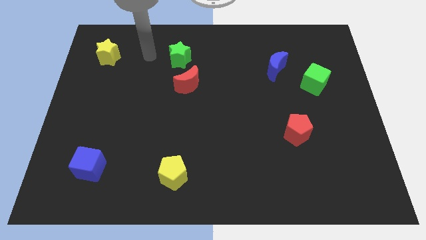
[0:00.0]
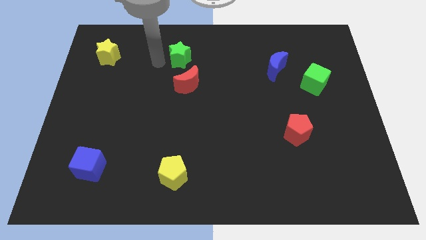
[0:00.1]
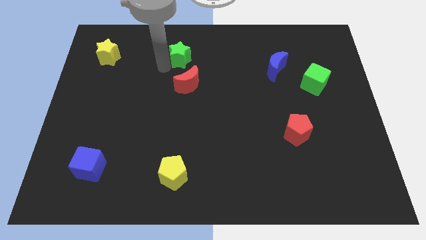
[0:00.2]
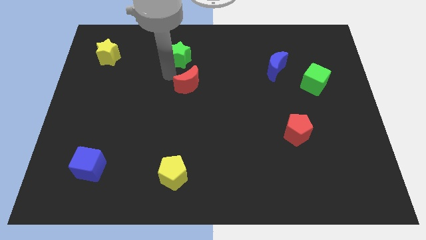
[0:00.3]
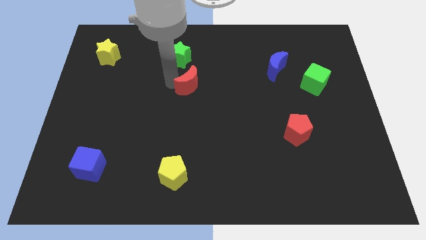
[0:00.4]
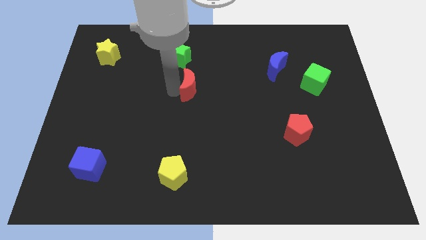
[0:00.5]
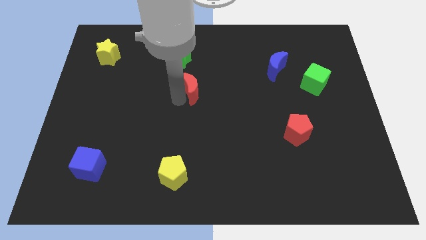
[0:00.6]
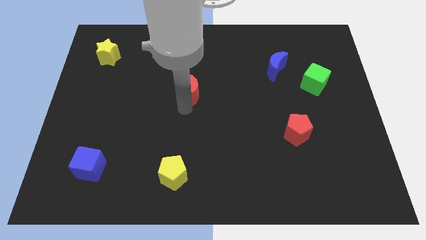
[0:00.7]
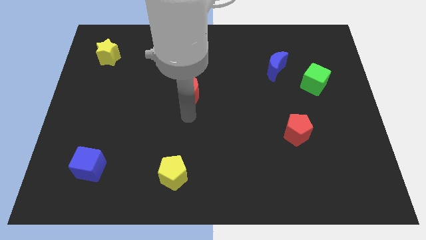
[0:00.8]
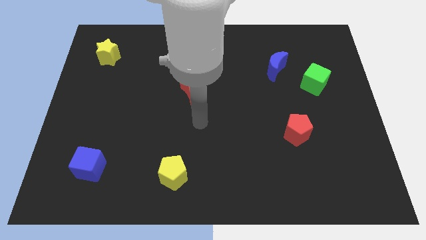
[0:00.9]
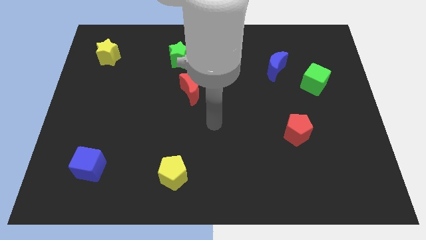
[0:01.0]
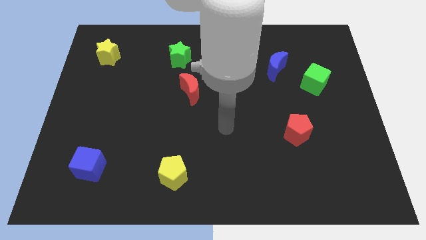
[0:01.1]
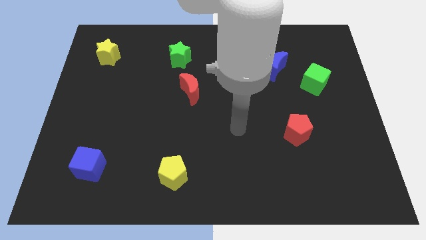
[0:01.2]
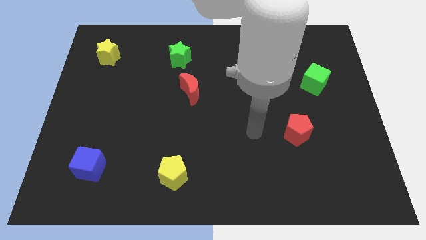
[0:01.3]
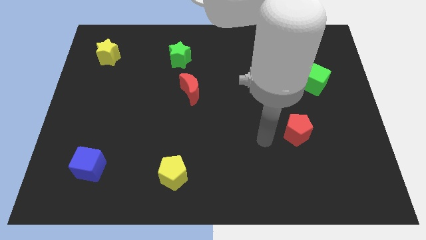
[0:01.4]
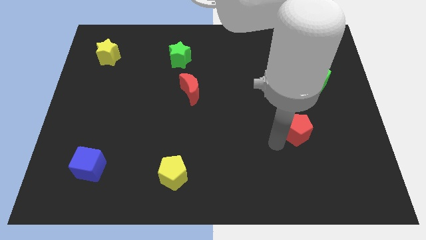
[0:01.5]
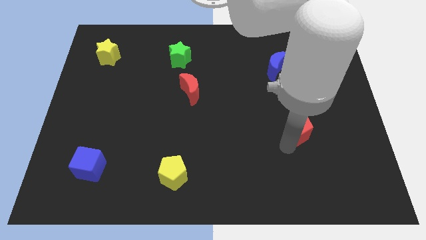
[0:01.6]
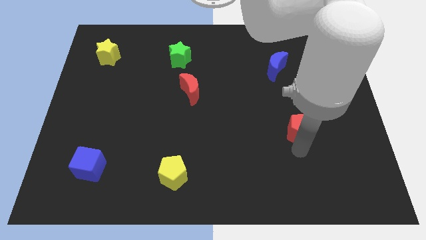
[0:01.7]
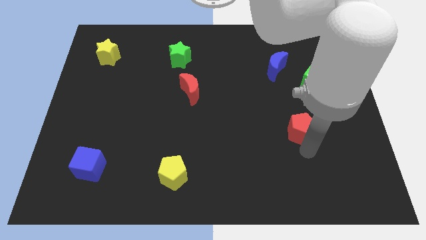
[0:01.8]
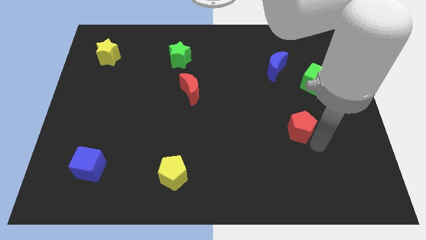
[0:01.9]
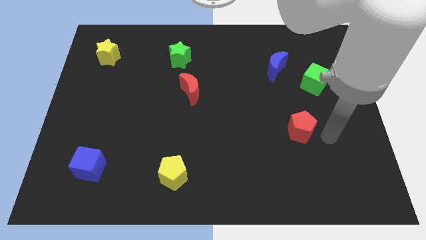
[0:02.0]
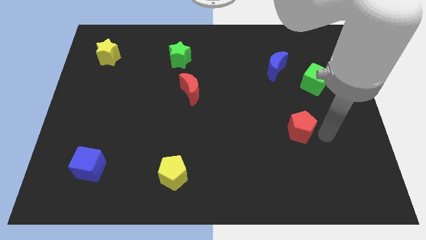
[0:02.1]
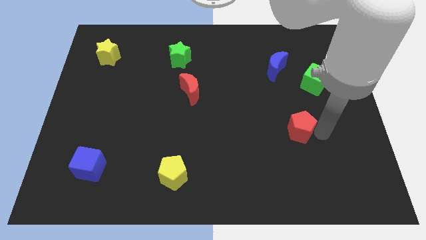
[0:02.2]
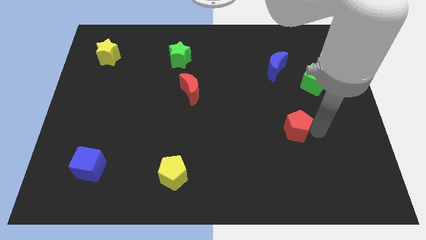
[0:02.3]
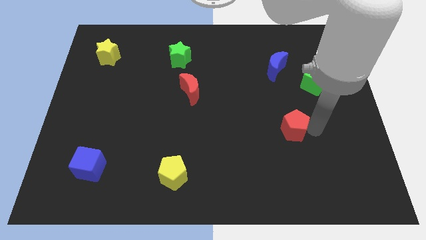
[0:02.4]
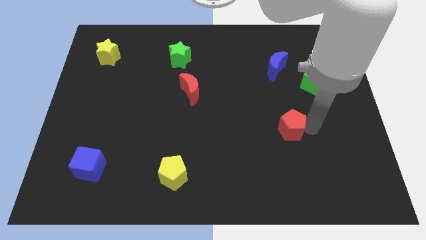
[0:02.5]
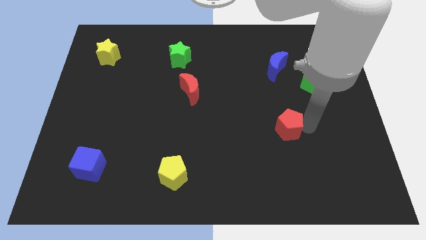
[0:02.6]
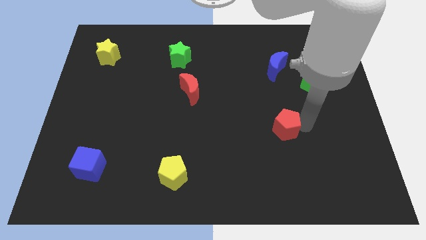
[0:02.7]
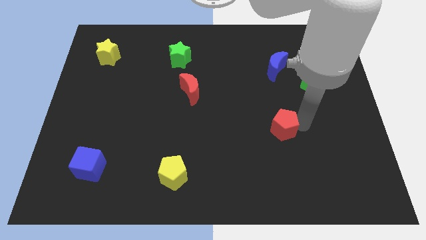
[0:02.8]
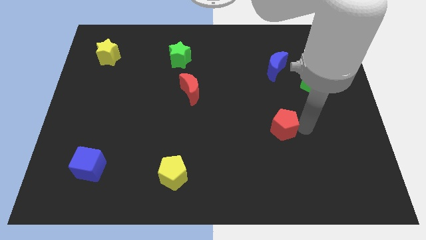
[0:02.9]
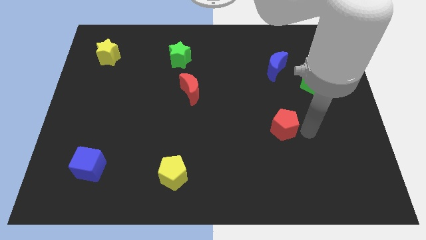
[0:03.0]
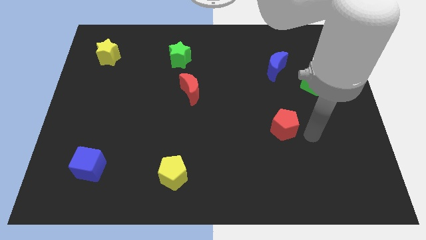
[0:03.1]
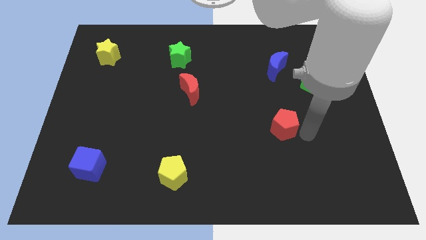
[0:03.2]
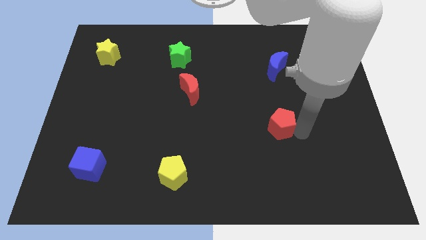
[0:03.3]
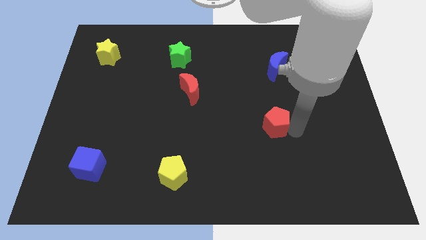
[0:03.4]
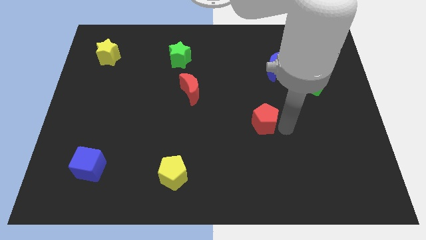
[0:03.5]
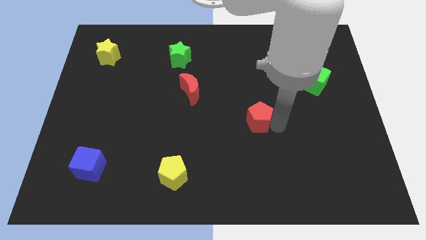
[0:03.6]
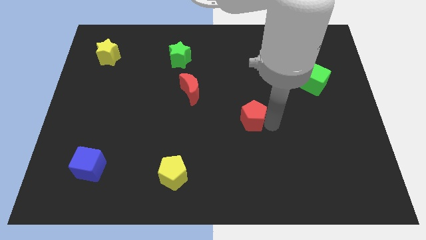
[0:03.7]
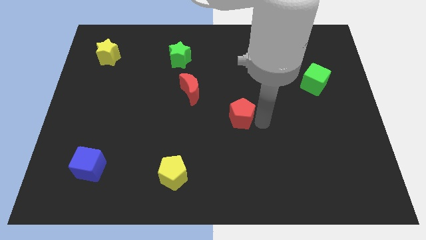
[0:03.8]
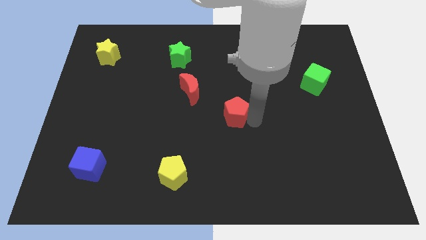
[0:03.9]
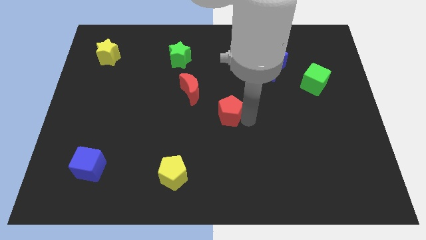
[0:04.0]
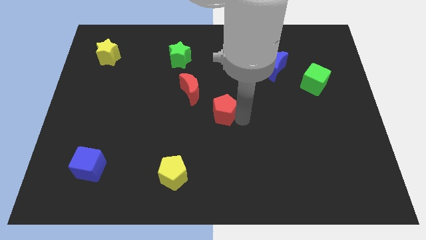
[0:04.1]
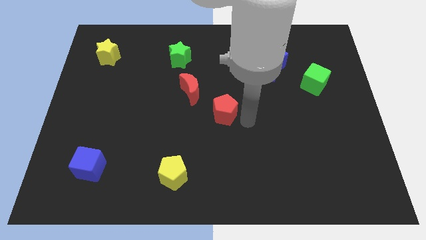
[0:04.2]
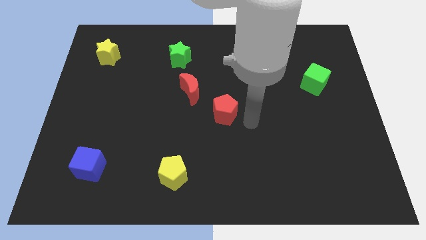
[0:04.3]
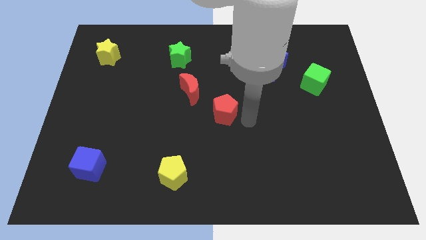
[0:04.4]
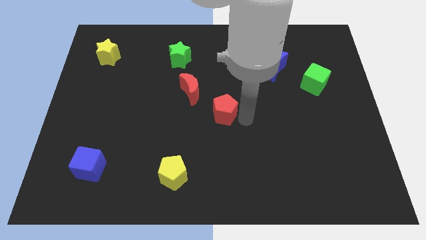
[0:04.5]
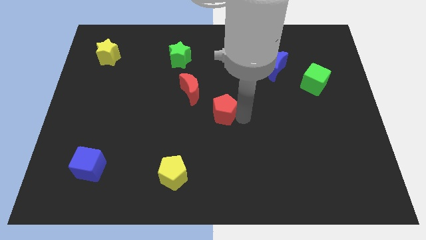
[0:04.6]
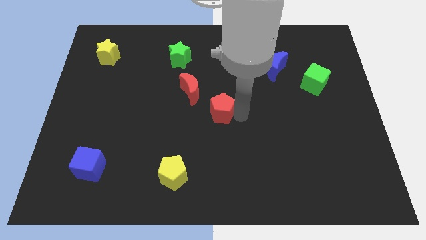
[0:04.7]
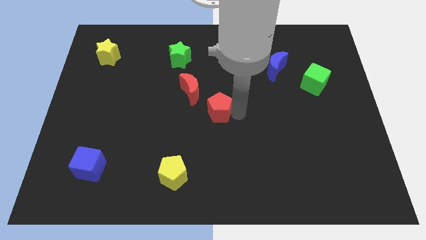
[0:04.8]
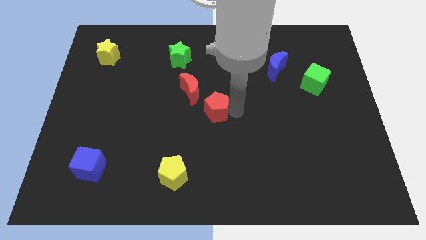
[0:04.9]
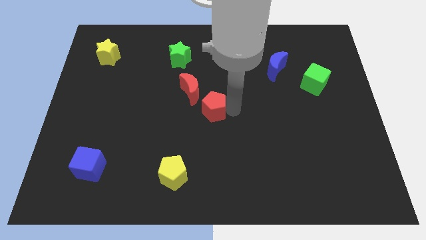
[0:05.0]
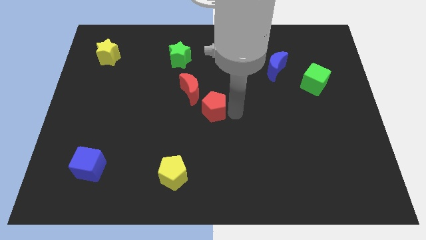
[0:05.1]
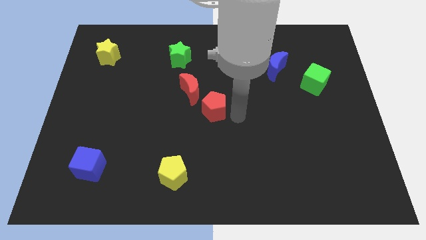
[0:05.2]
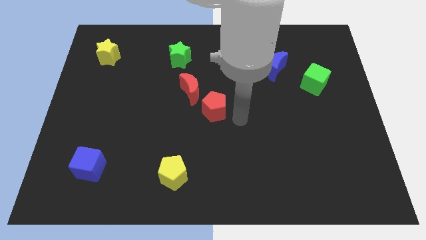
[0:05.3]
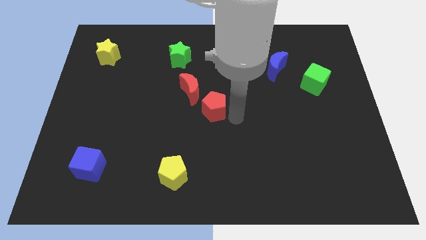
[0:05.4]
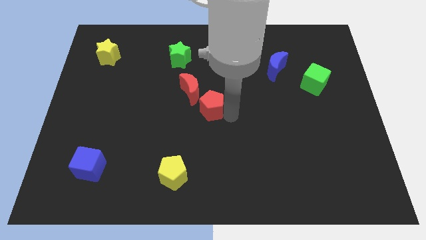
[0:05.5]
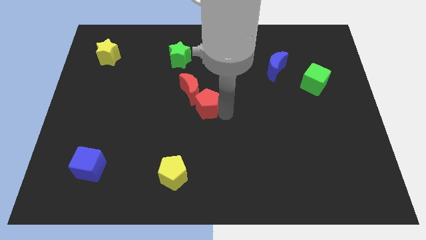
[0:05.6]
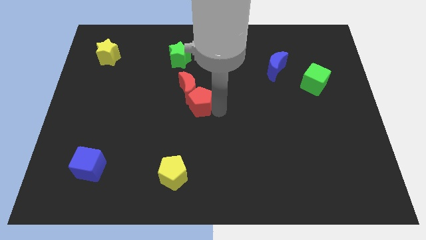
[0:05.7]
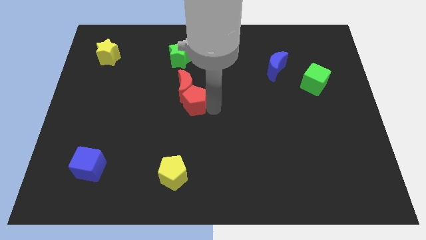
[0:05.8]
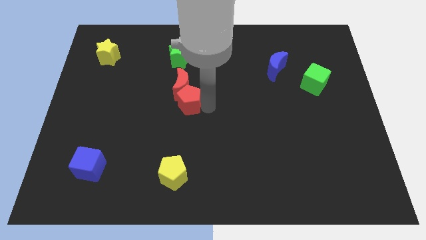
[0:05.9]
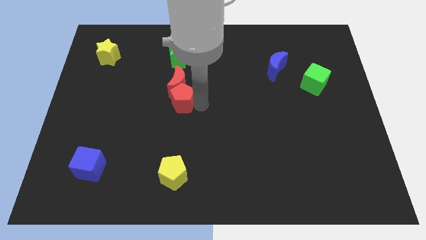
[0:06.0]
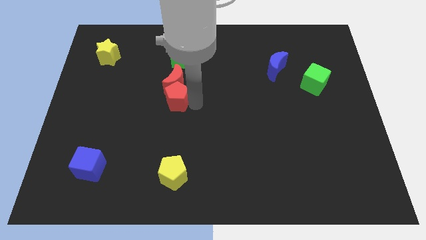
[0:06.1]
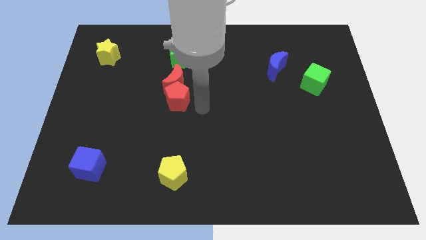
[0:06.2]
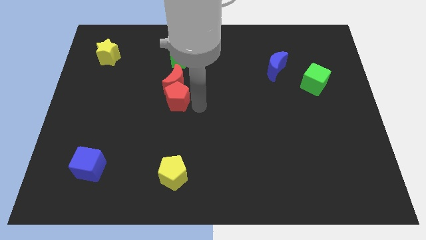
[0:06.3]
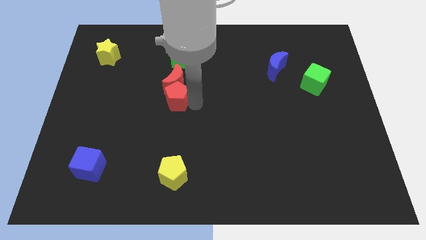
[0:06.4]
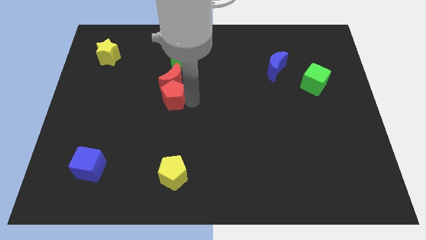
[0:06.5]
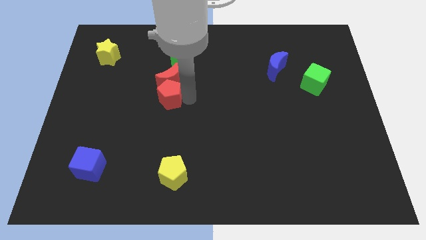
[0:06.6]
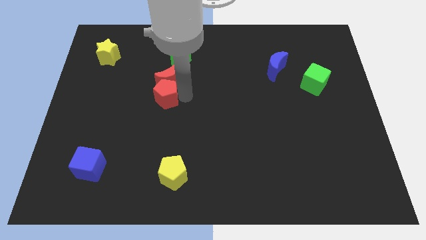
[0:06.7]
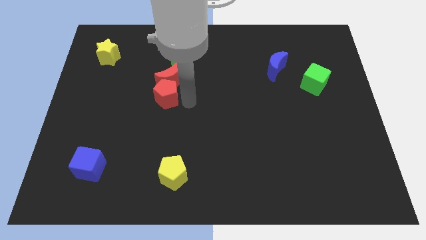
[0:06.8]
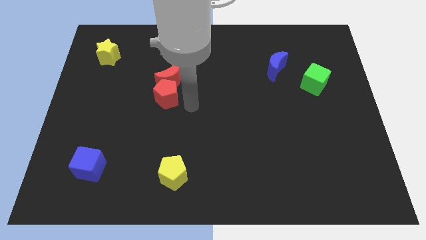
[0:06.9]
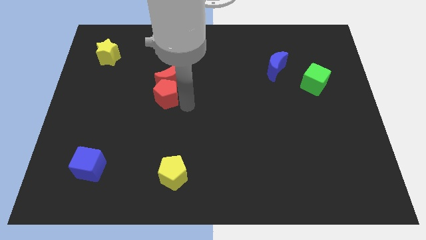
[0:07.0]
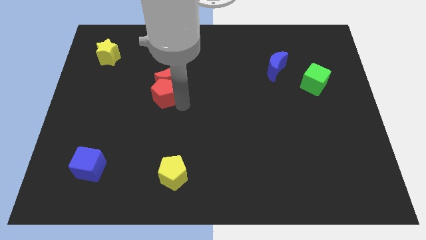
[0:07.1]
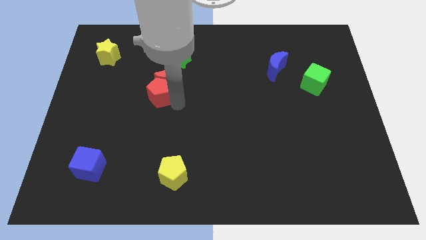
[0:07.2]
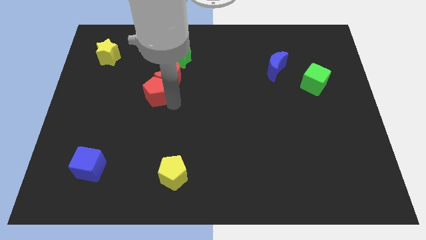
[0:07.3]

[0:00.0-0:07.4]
push the red pentagon just left of the red moon
